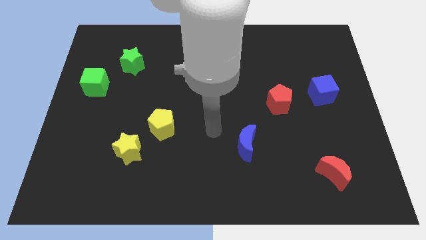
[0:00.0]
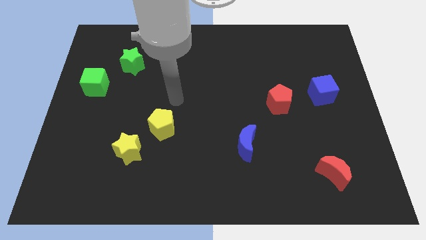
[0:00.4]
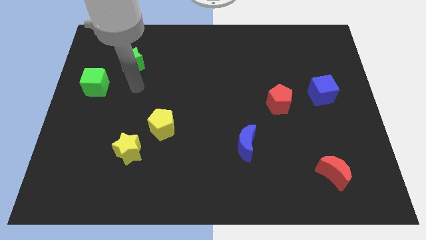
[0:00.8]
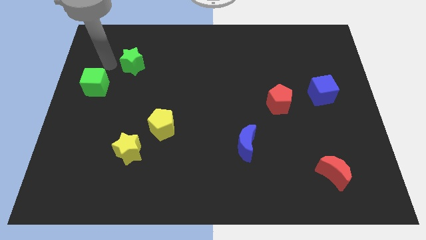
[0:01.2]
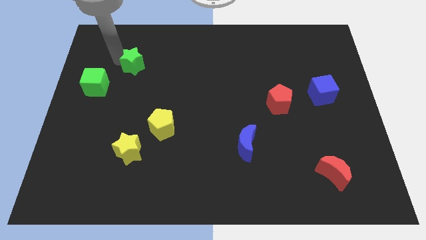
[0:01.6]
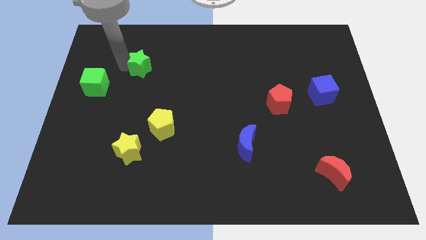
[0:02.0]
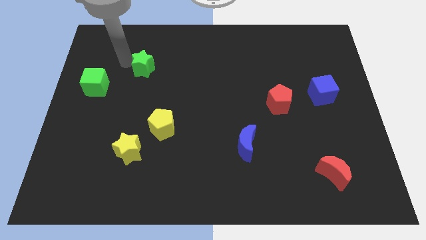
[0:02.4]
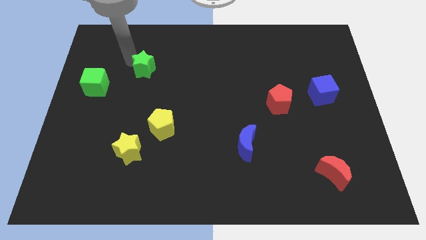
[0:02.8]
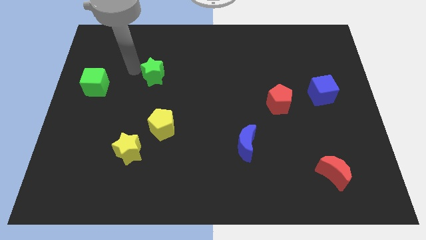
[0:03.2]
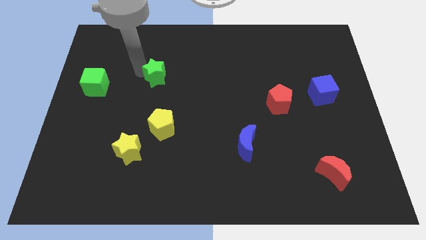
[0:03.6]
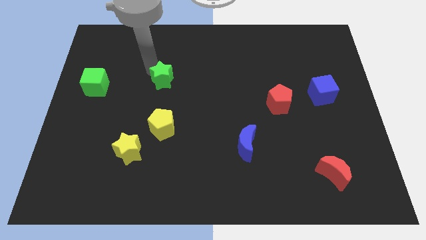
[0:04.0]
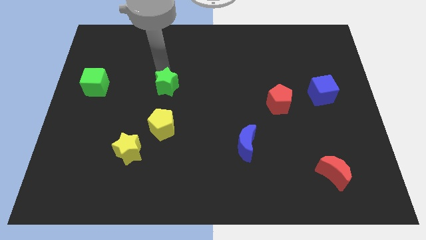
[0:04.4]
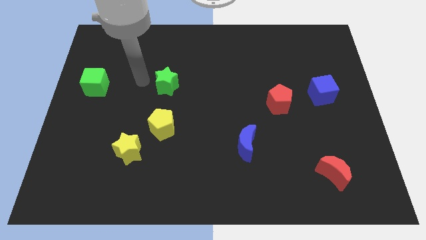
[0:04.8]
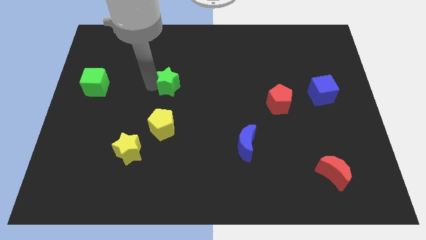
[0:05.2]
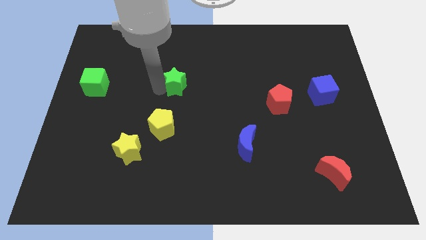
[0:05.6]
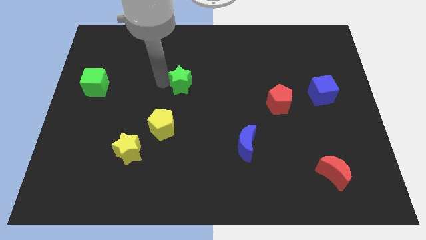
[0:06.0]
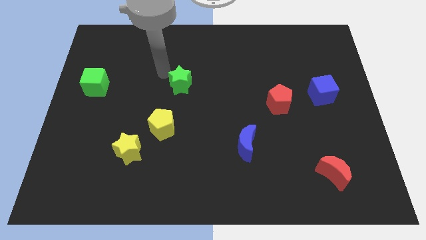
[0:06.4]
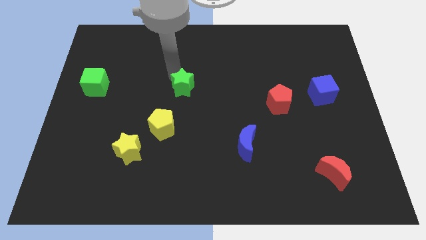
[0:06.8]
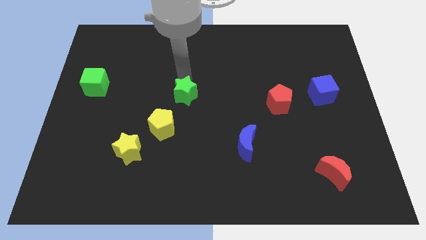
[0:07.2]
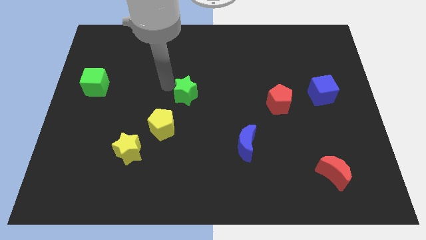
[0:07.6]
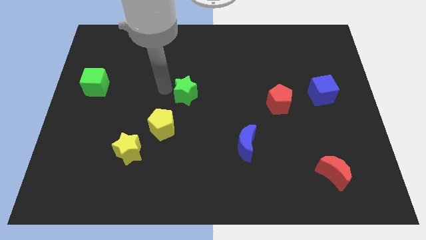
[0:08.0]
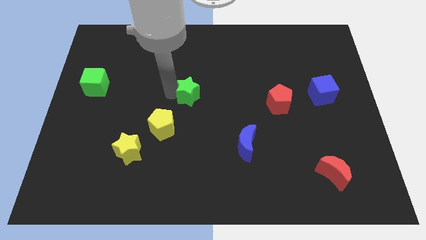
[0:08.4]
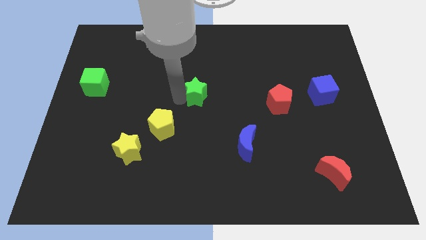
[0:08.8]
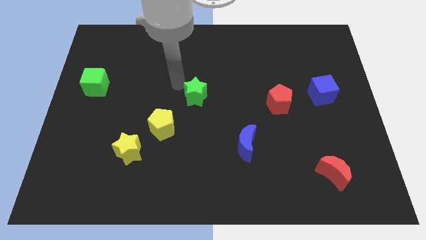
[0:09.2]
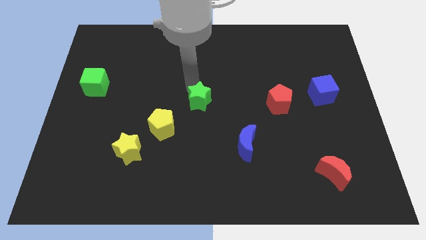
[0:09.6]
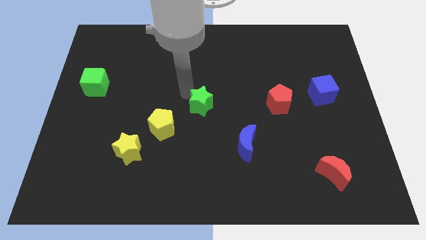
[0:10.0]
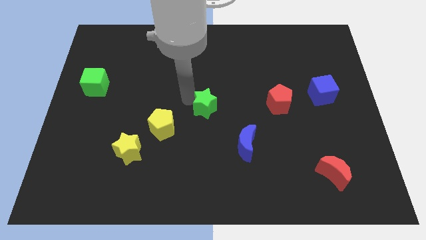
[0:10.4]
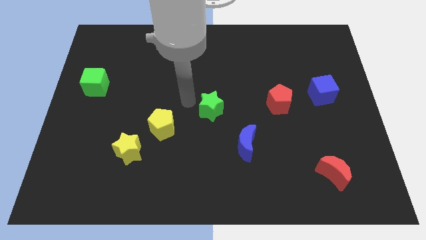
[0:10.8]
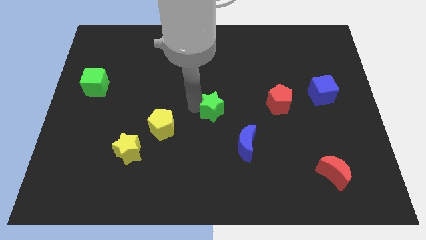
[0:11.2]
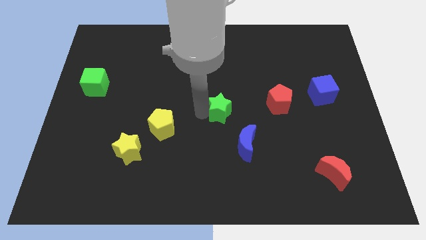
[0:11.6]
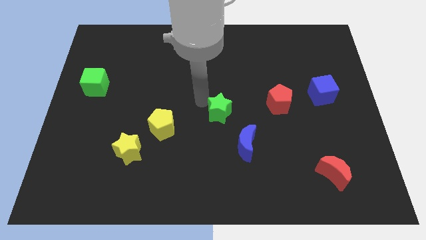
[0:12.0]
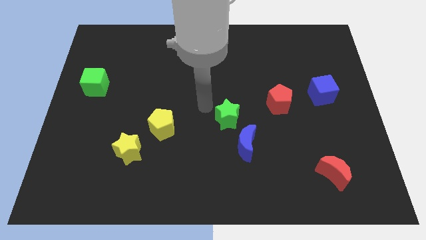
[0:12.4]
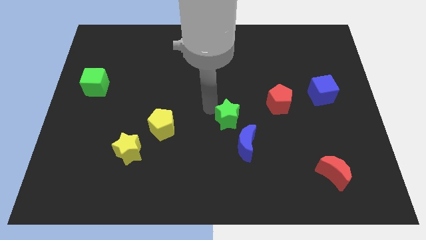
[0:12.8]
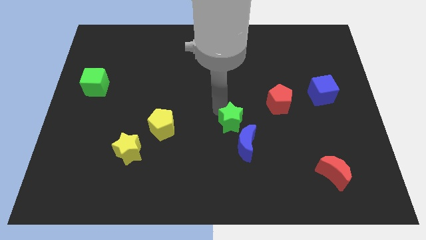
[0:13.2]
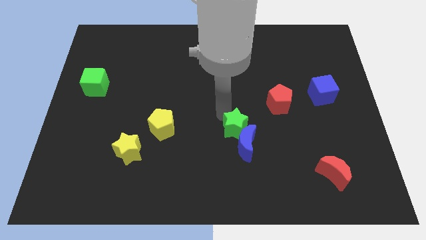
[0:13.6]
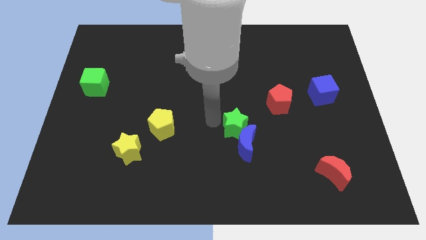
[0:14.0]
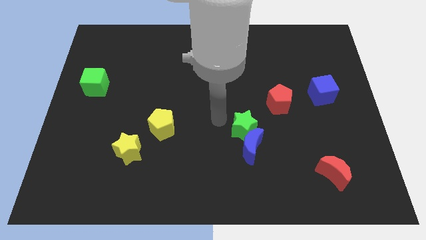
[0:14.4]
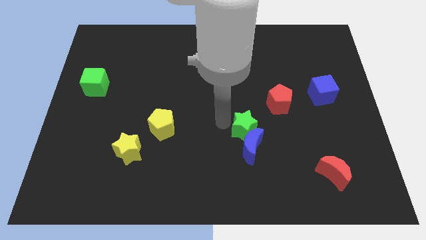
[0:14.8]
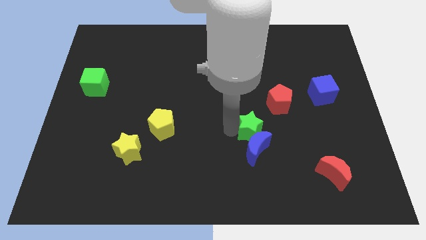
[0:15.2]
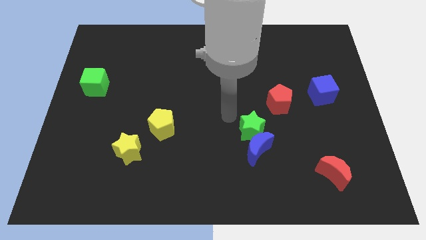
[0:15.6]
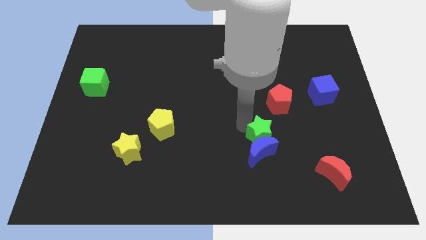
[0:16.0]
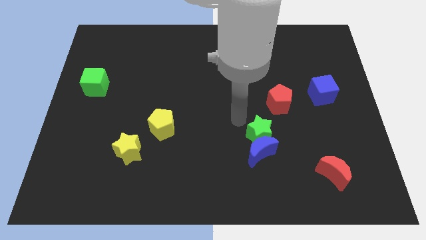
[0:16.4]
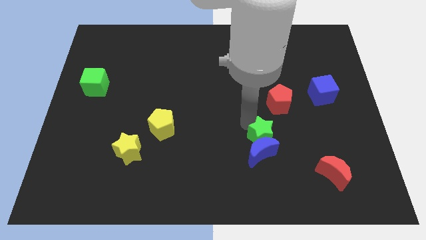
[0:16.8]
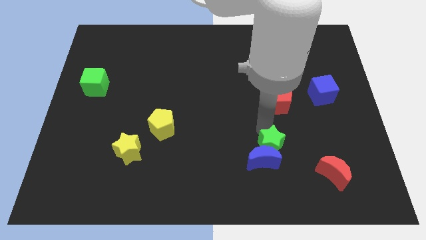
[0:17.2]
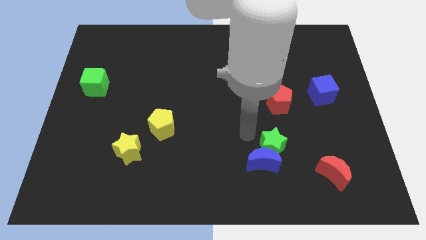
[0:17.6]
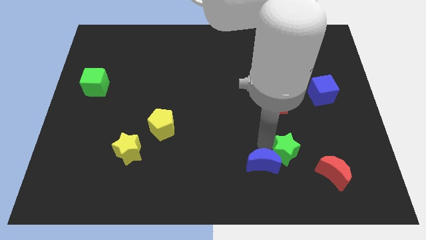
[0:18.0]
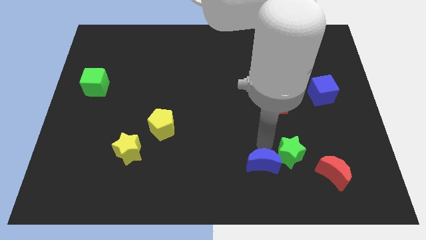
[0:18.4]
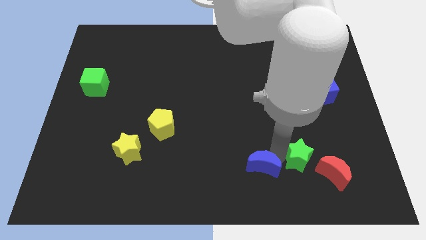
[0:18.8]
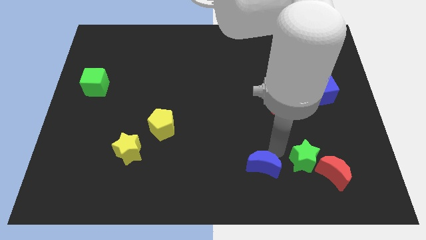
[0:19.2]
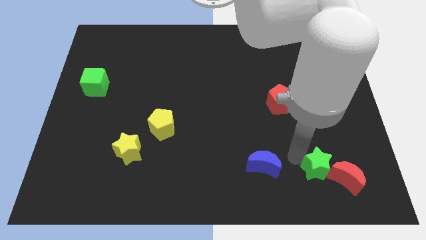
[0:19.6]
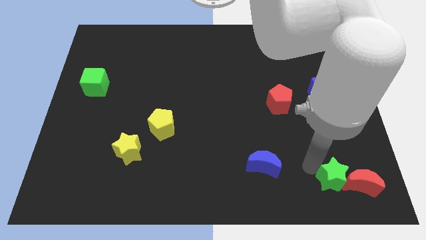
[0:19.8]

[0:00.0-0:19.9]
move the green star towards the red moon

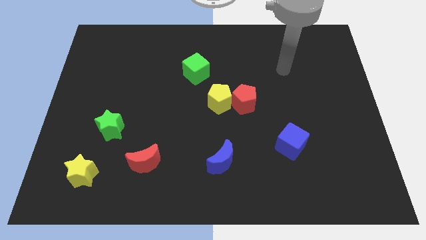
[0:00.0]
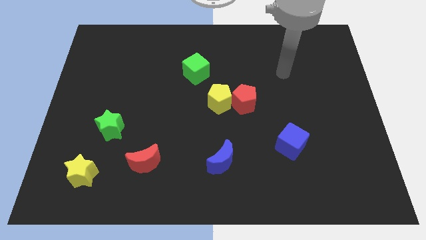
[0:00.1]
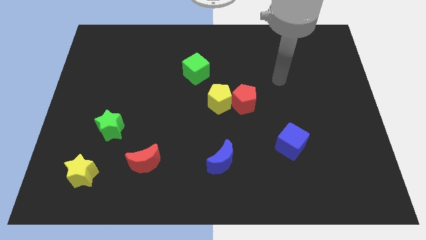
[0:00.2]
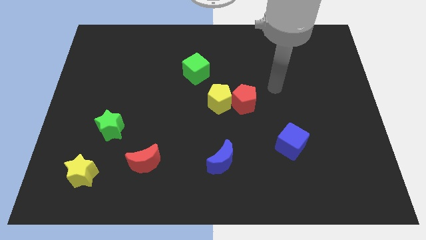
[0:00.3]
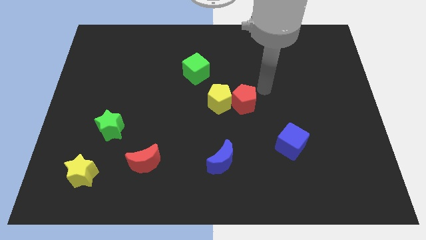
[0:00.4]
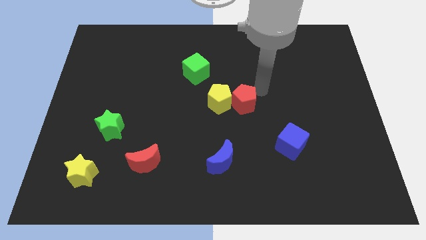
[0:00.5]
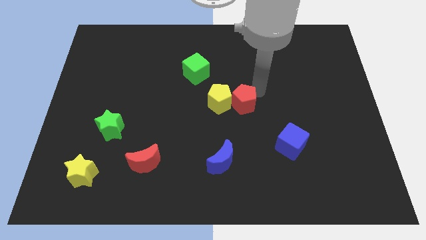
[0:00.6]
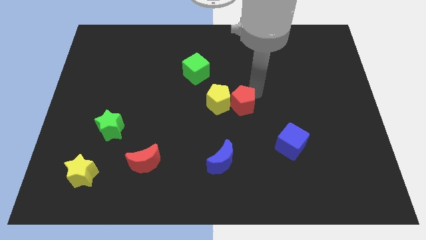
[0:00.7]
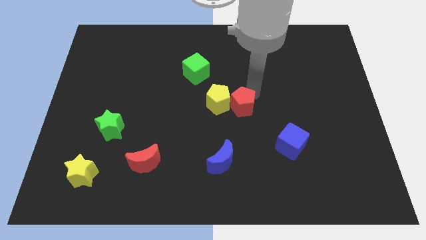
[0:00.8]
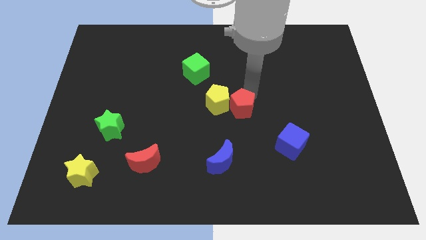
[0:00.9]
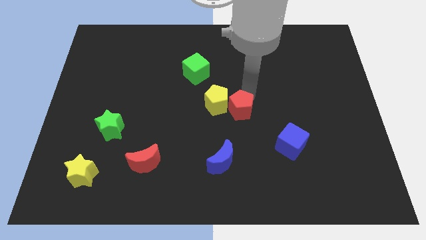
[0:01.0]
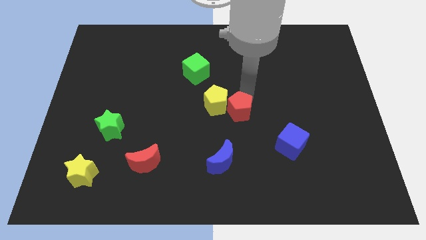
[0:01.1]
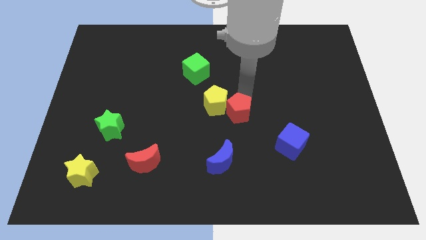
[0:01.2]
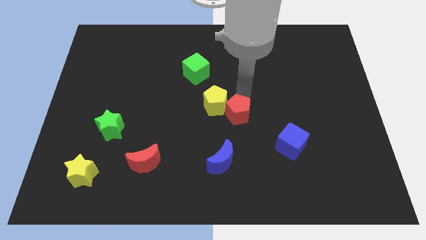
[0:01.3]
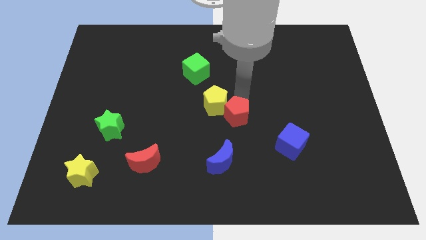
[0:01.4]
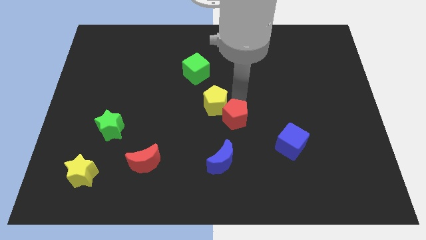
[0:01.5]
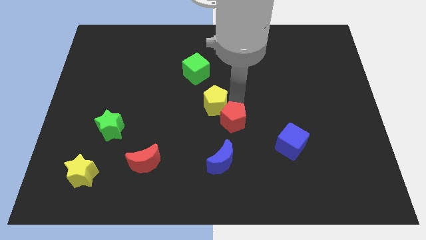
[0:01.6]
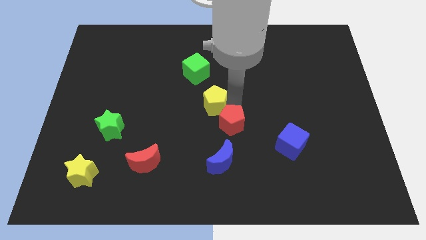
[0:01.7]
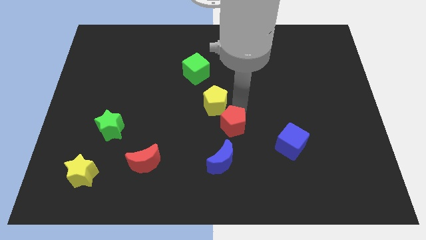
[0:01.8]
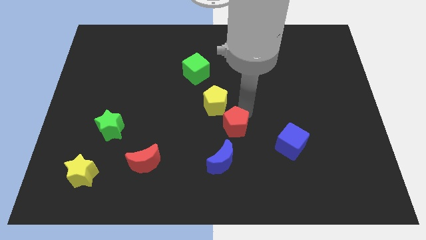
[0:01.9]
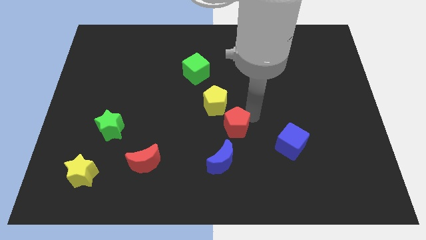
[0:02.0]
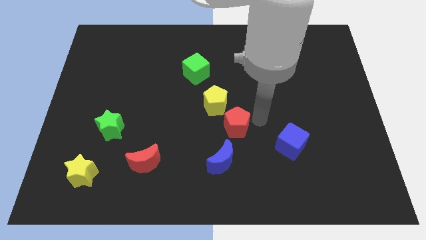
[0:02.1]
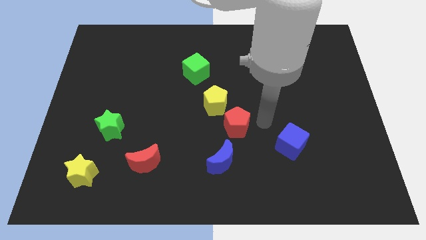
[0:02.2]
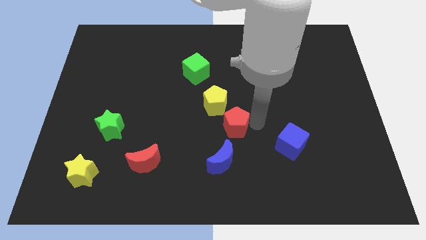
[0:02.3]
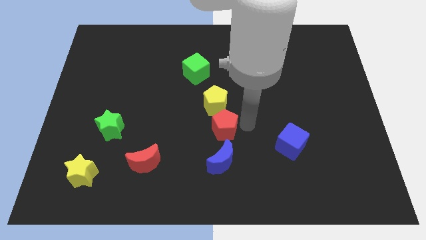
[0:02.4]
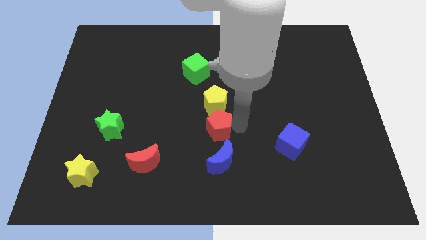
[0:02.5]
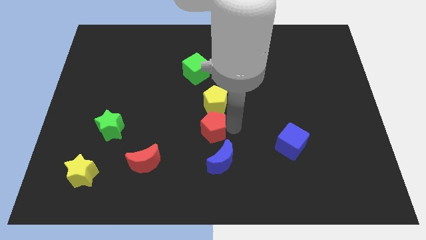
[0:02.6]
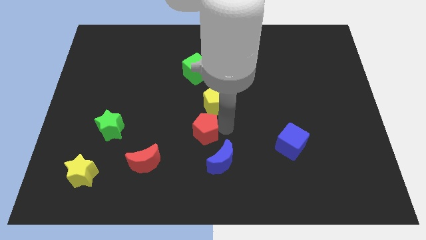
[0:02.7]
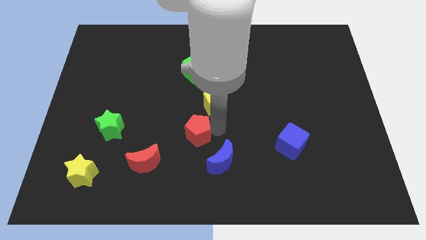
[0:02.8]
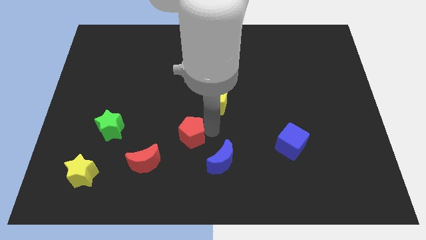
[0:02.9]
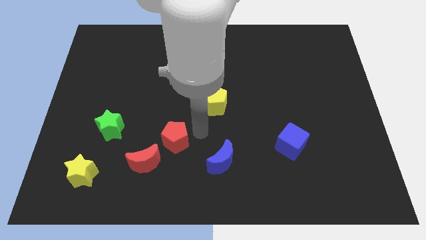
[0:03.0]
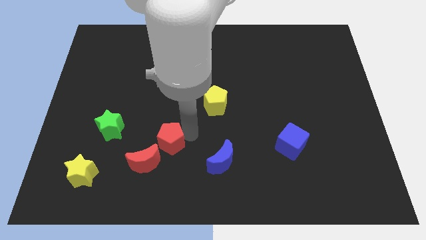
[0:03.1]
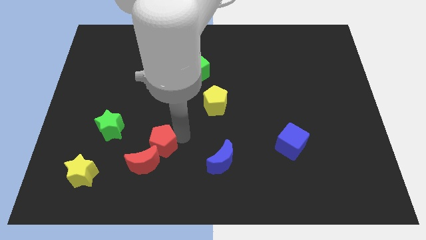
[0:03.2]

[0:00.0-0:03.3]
put the red pentagon towards the red moon
